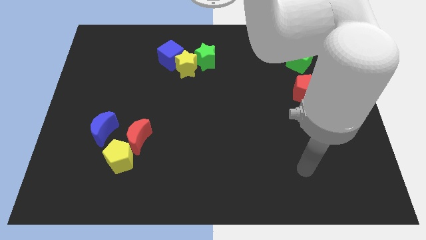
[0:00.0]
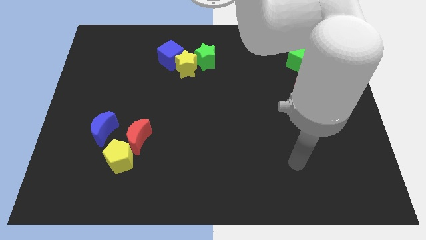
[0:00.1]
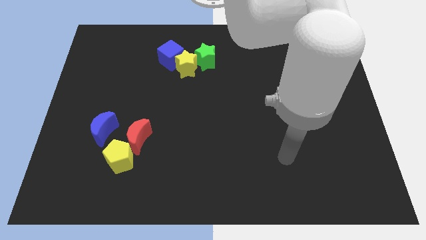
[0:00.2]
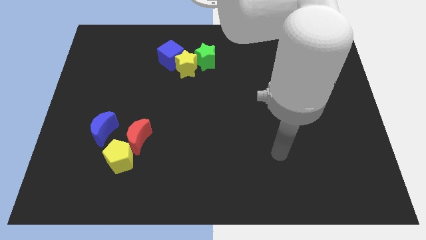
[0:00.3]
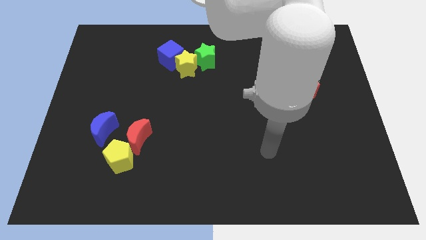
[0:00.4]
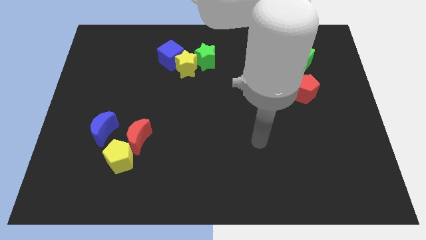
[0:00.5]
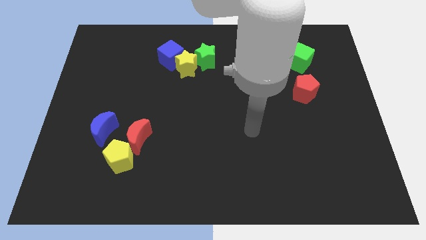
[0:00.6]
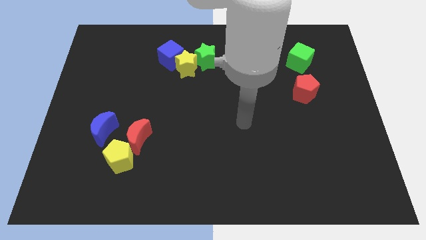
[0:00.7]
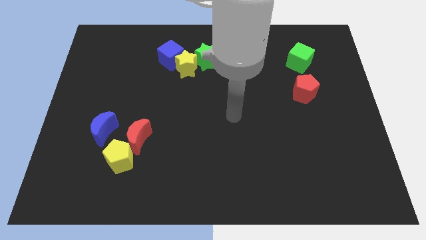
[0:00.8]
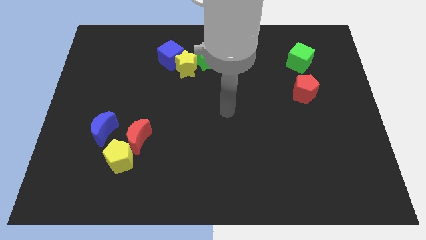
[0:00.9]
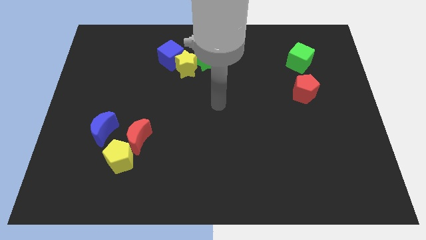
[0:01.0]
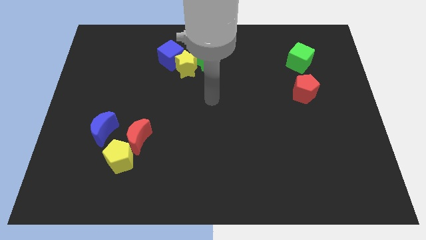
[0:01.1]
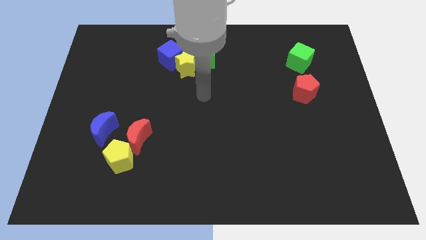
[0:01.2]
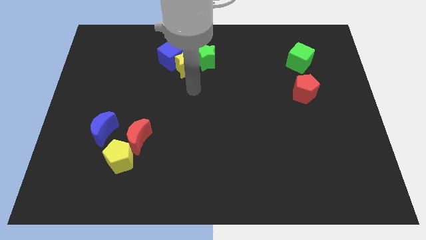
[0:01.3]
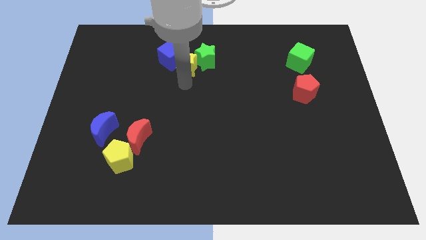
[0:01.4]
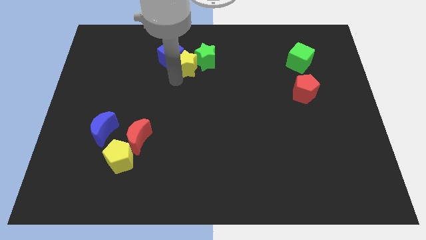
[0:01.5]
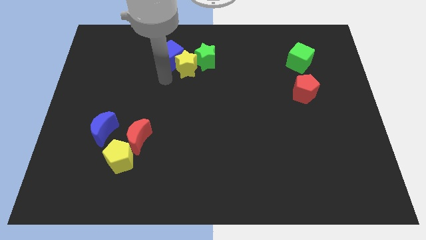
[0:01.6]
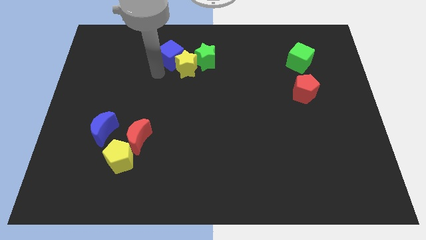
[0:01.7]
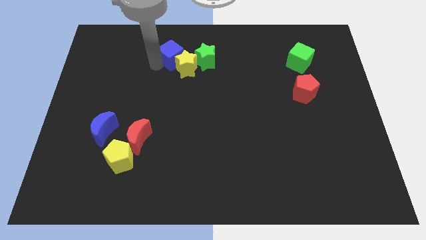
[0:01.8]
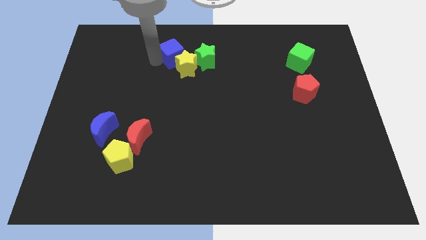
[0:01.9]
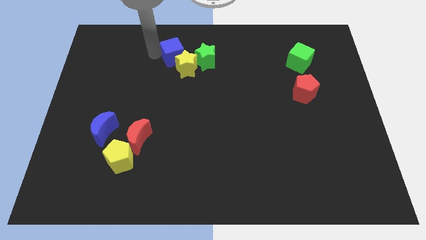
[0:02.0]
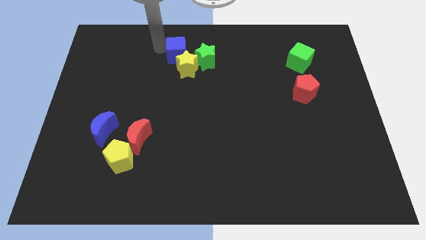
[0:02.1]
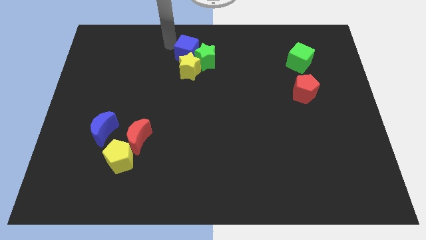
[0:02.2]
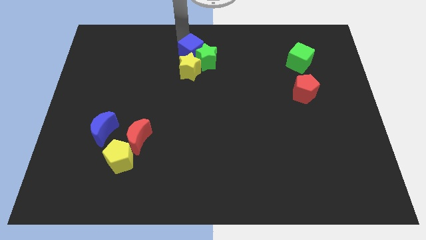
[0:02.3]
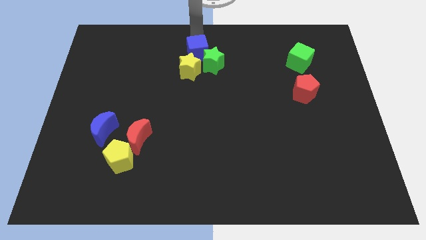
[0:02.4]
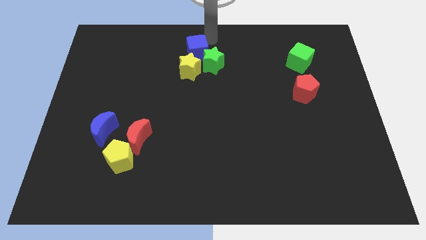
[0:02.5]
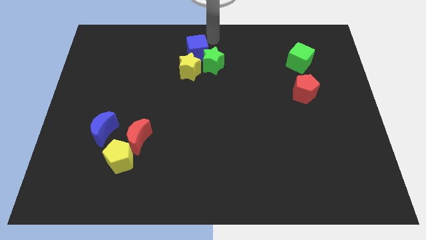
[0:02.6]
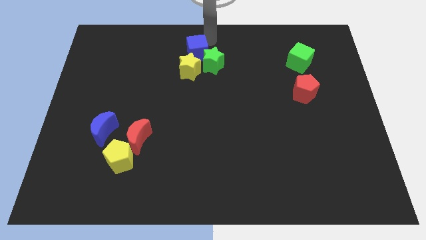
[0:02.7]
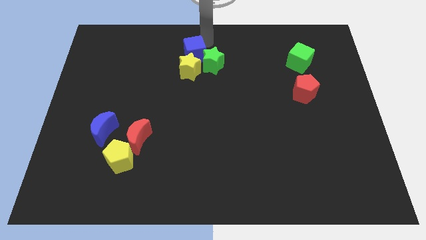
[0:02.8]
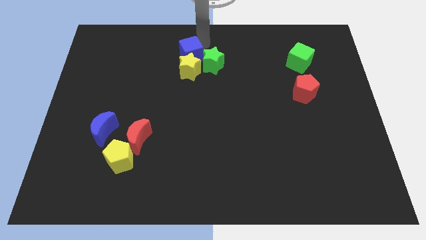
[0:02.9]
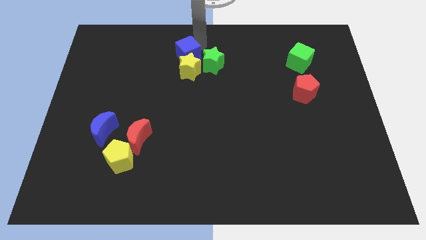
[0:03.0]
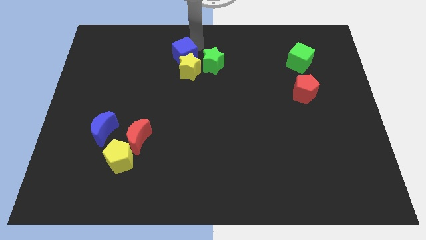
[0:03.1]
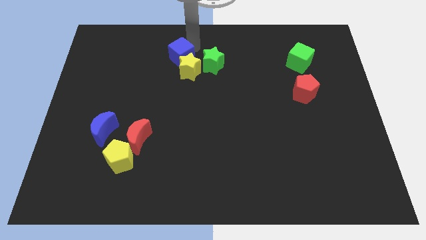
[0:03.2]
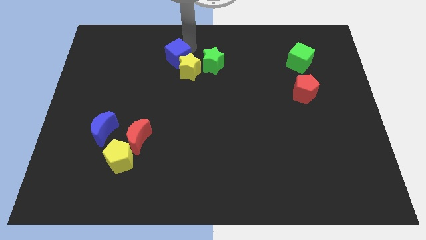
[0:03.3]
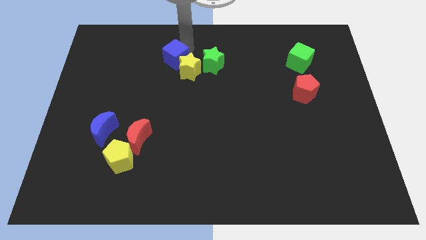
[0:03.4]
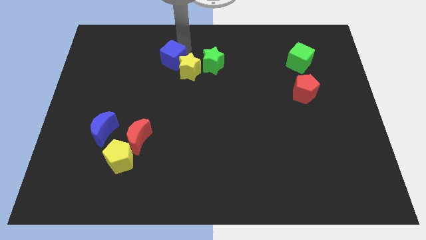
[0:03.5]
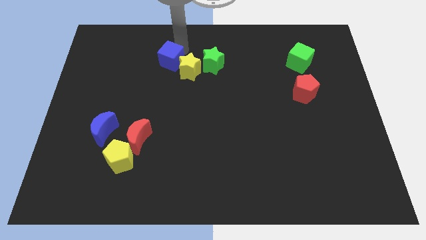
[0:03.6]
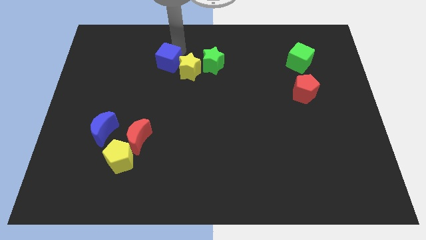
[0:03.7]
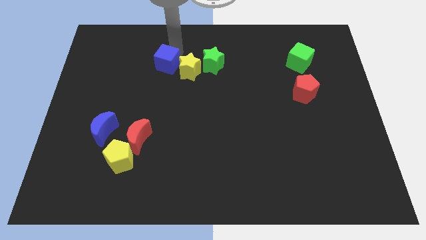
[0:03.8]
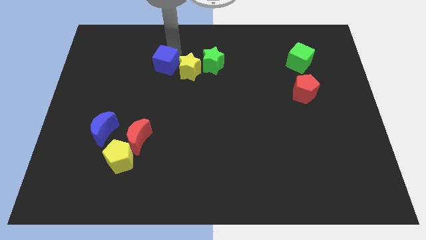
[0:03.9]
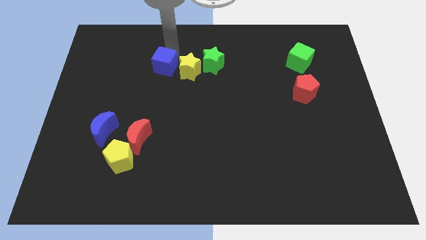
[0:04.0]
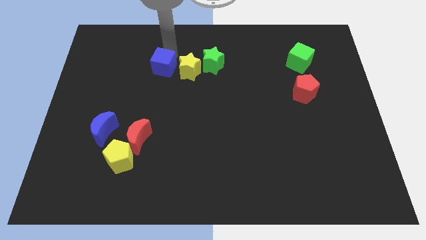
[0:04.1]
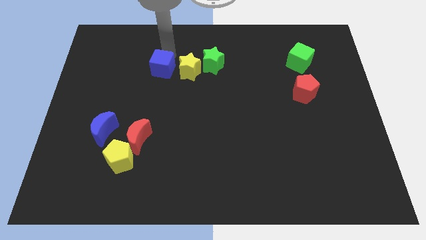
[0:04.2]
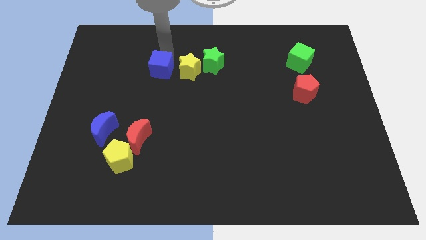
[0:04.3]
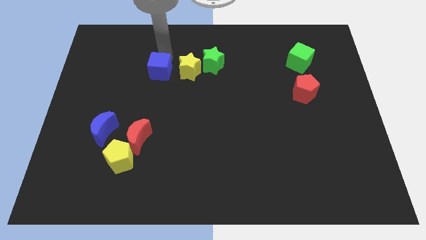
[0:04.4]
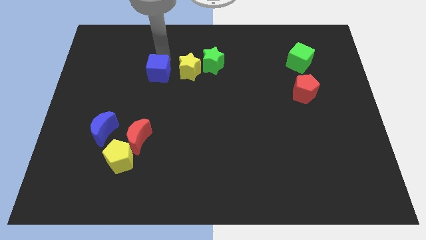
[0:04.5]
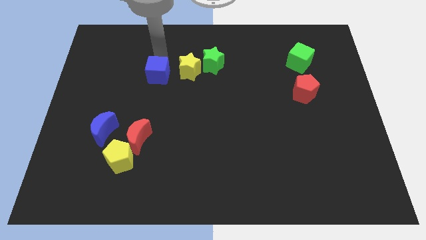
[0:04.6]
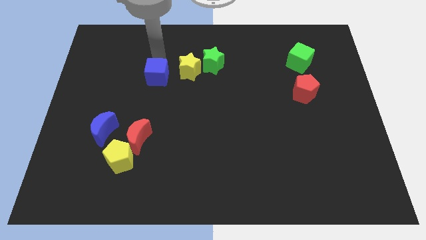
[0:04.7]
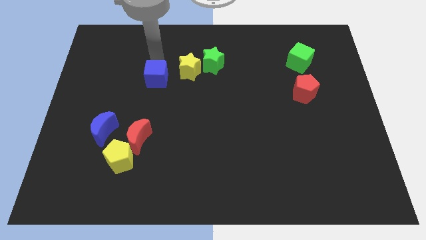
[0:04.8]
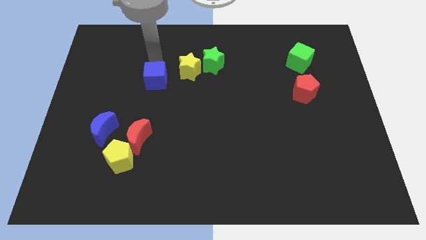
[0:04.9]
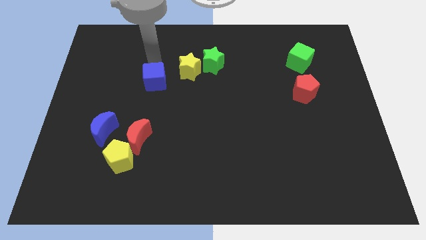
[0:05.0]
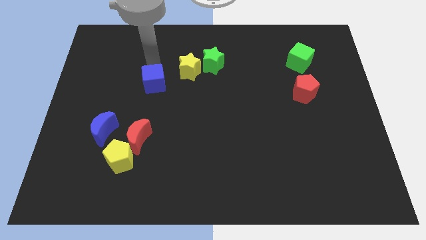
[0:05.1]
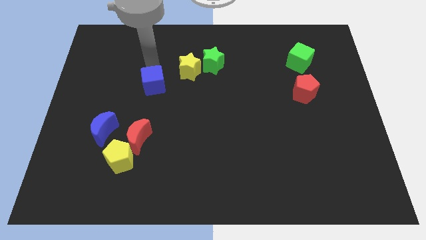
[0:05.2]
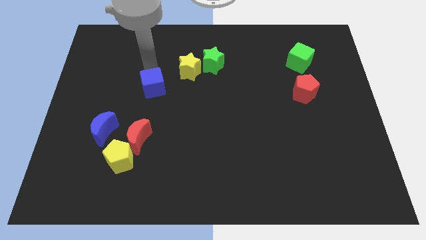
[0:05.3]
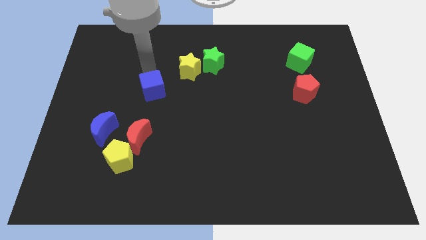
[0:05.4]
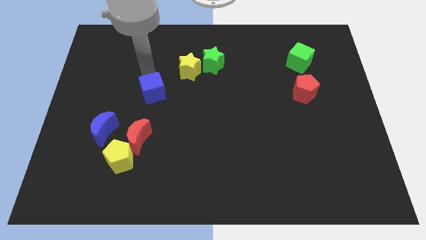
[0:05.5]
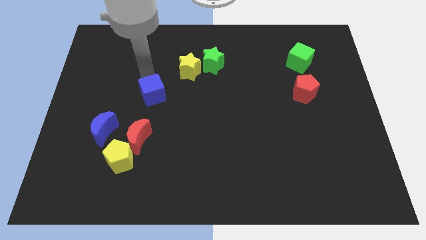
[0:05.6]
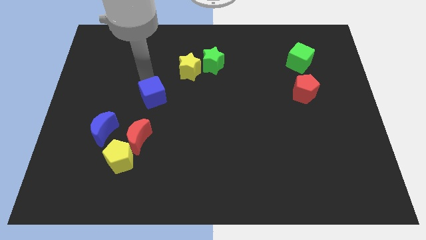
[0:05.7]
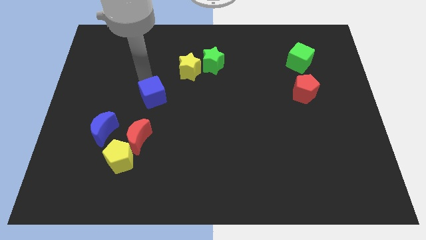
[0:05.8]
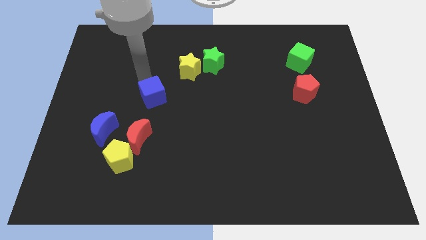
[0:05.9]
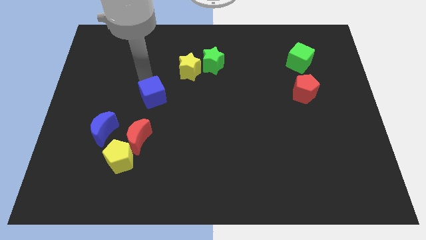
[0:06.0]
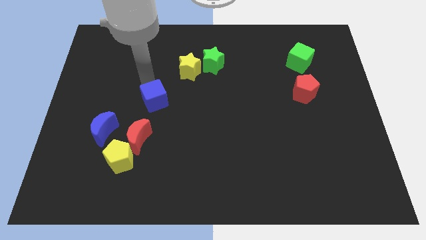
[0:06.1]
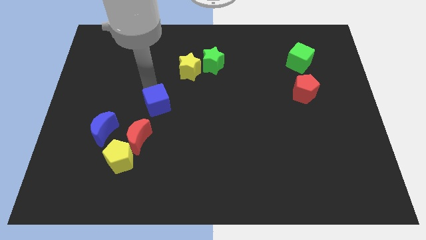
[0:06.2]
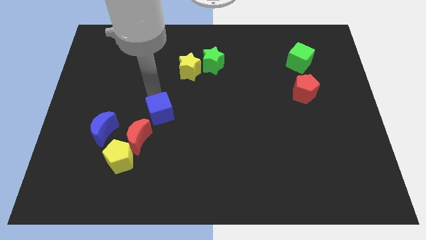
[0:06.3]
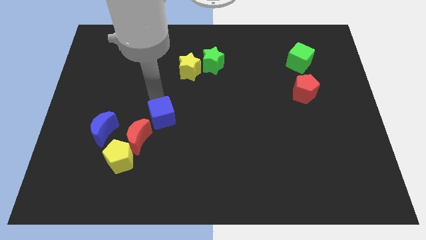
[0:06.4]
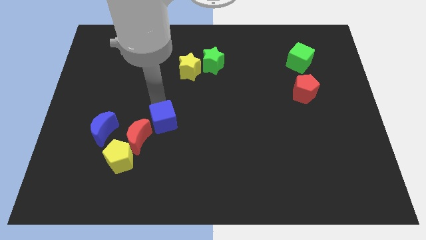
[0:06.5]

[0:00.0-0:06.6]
slide the blue cube downwards

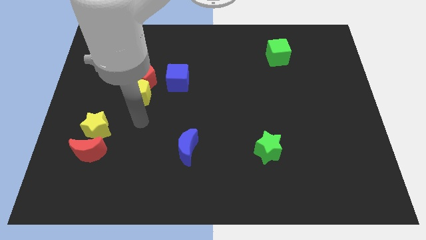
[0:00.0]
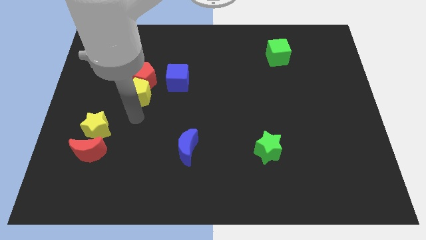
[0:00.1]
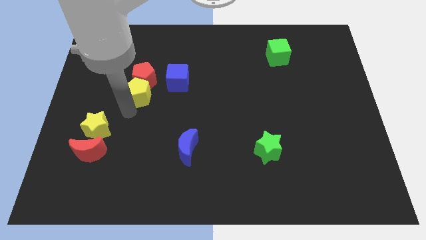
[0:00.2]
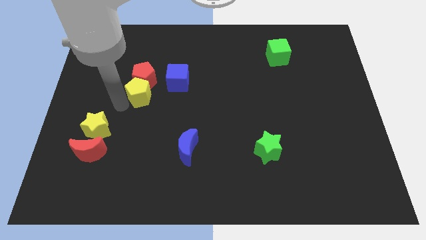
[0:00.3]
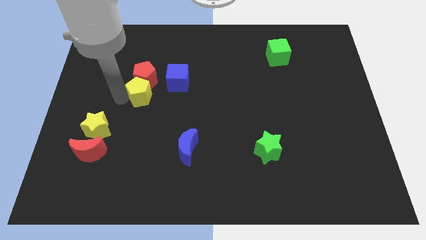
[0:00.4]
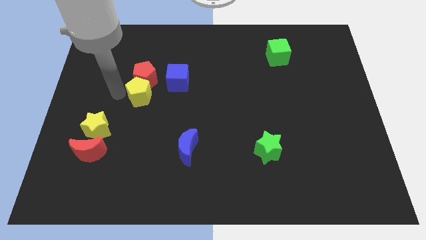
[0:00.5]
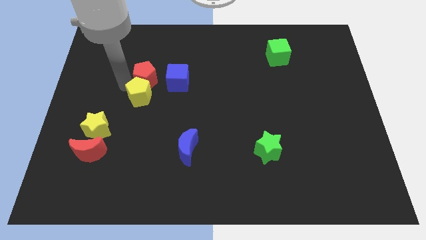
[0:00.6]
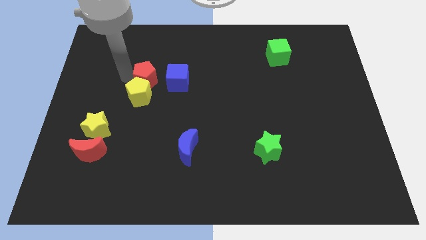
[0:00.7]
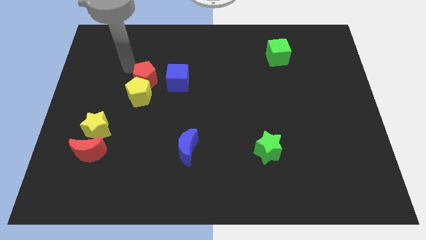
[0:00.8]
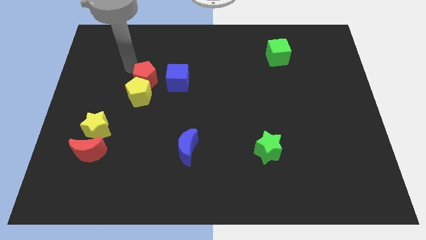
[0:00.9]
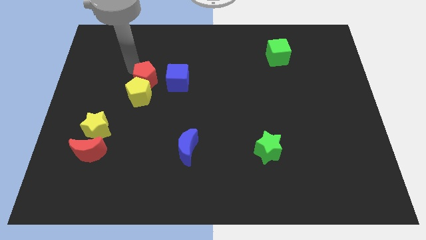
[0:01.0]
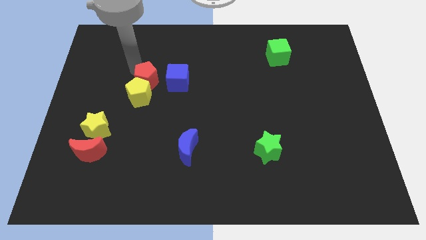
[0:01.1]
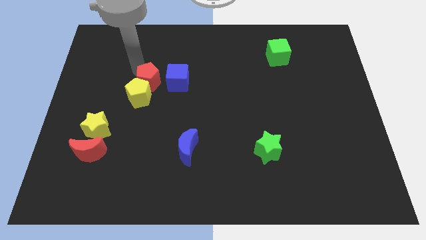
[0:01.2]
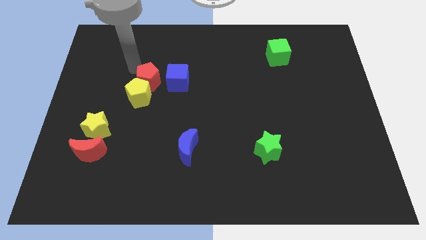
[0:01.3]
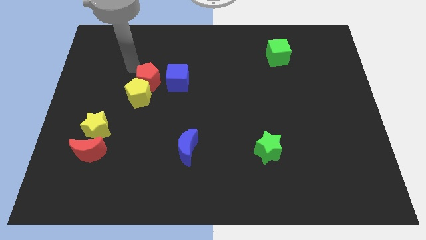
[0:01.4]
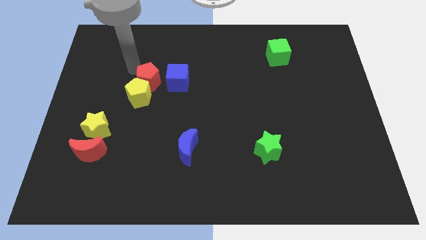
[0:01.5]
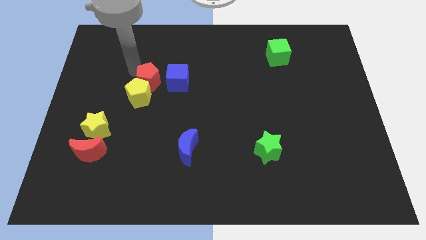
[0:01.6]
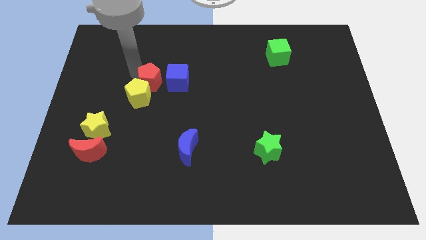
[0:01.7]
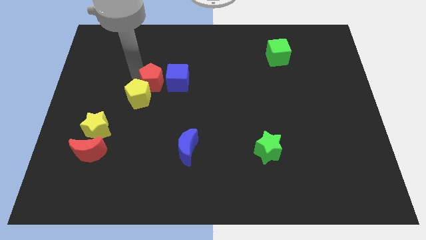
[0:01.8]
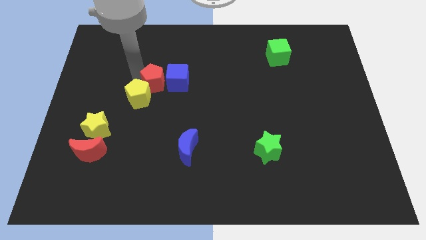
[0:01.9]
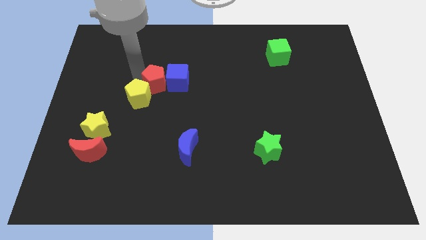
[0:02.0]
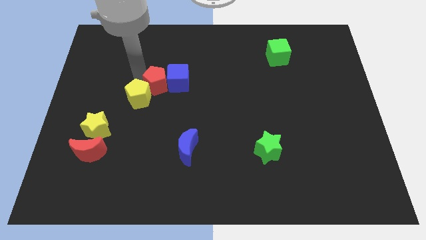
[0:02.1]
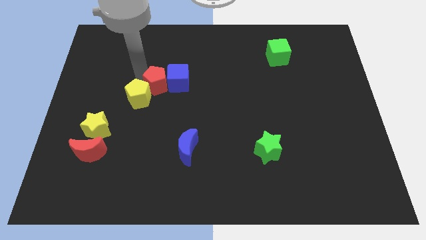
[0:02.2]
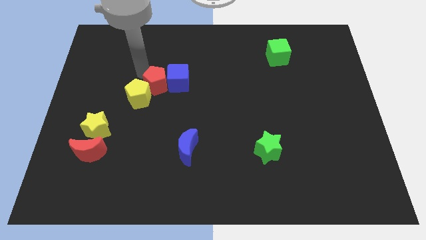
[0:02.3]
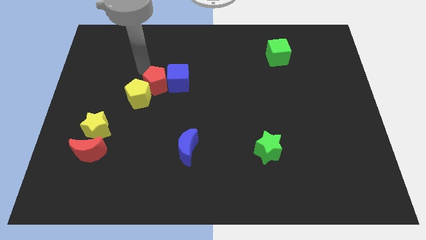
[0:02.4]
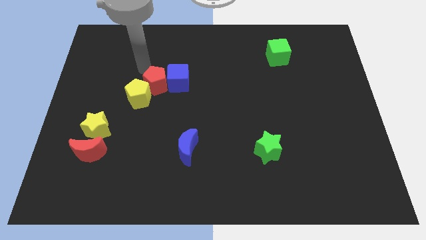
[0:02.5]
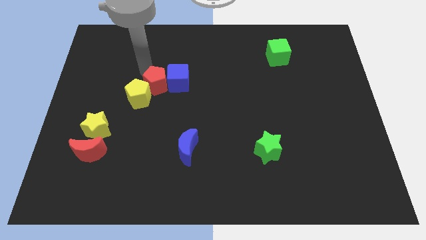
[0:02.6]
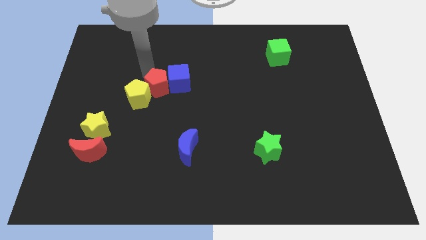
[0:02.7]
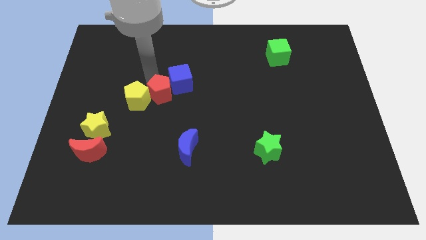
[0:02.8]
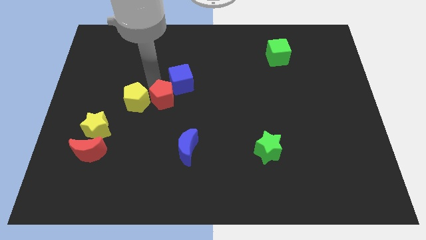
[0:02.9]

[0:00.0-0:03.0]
slightly push the red pentagon down and to the right diagonally
